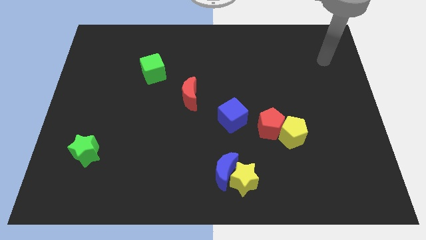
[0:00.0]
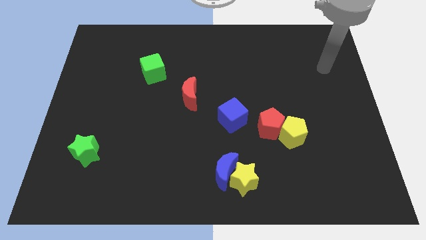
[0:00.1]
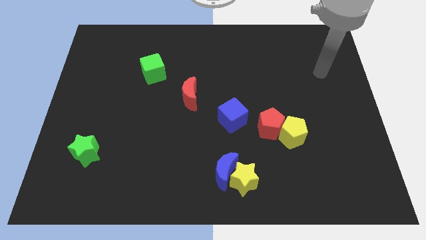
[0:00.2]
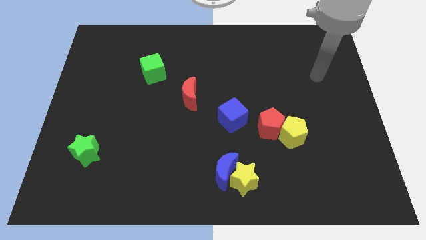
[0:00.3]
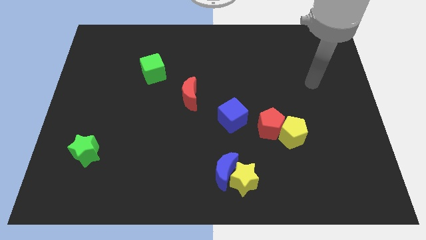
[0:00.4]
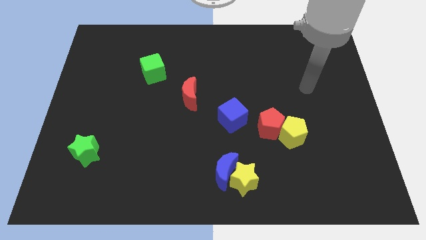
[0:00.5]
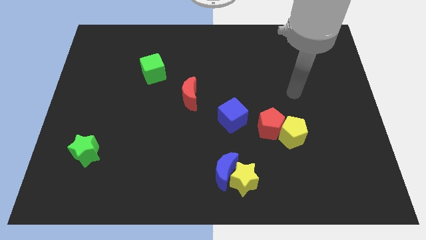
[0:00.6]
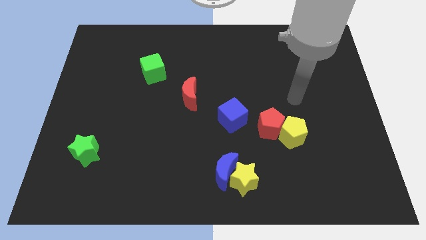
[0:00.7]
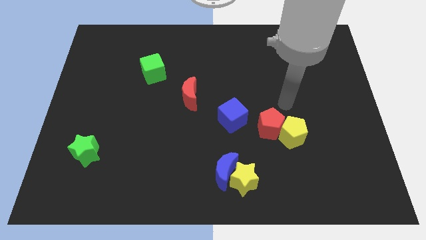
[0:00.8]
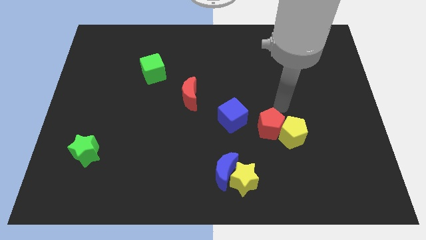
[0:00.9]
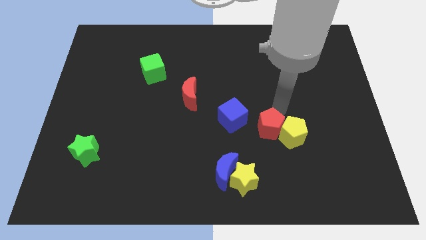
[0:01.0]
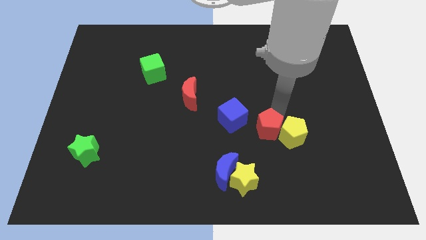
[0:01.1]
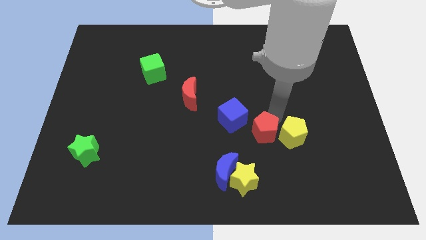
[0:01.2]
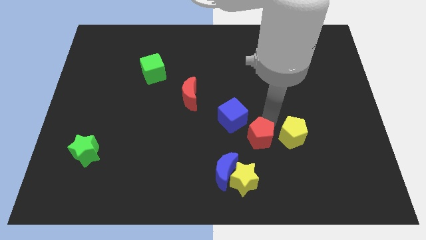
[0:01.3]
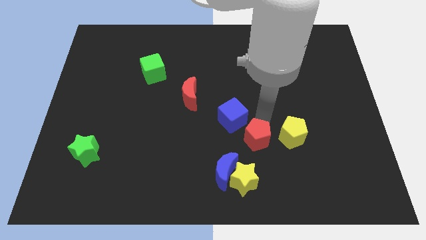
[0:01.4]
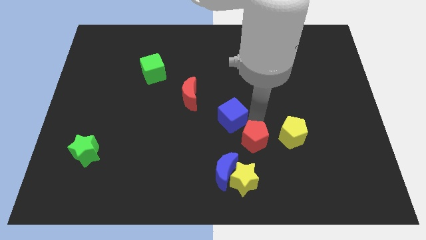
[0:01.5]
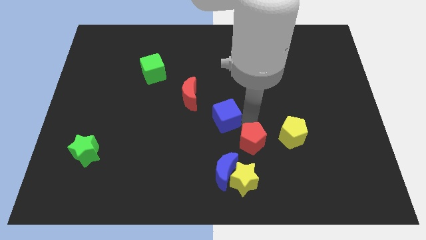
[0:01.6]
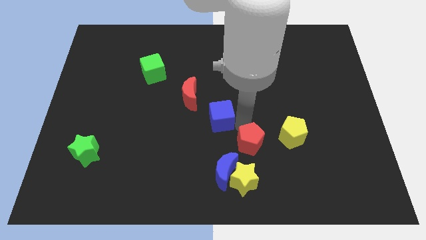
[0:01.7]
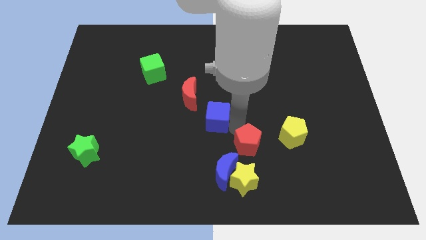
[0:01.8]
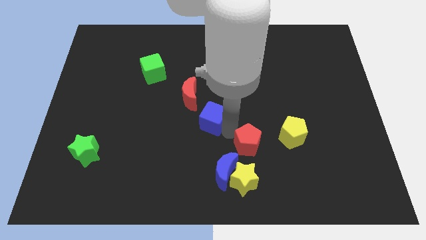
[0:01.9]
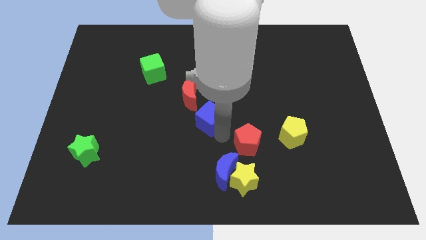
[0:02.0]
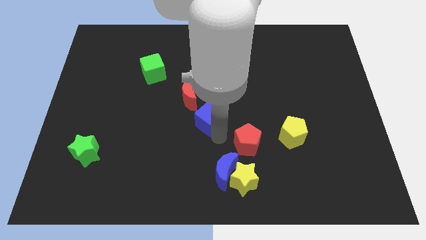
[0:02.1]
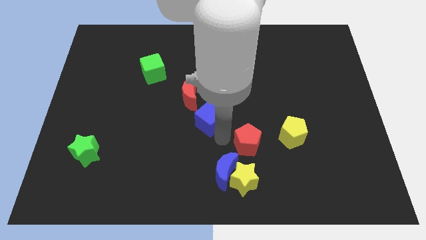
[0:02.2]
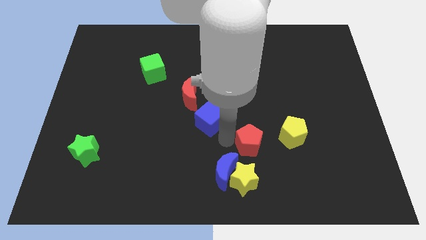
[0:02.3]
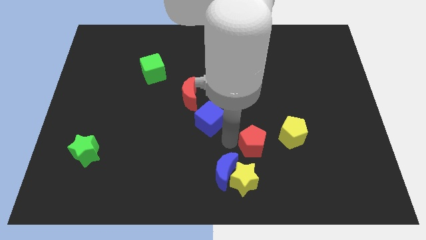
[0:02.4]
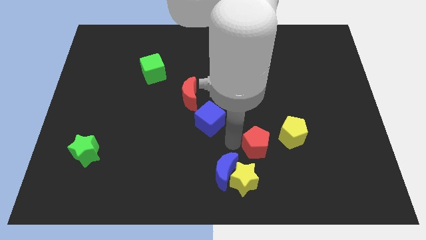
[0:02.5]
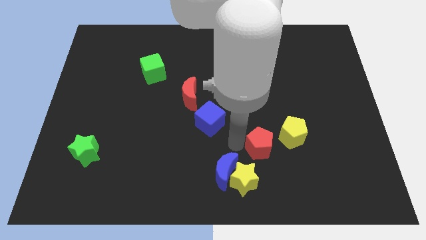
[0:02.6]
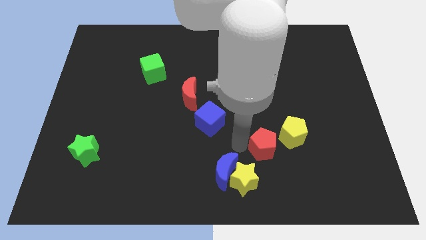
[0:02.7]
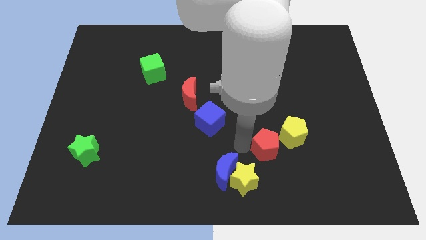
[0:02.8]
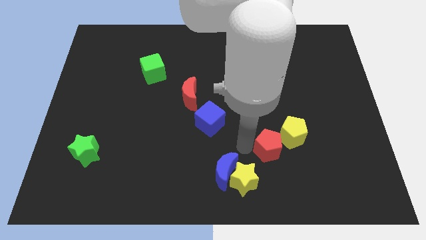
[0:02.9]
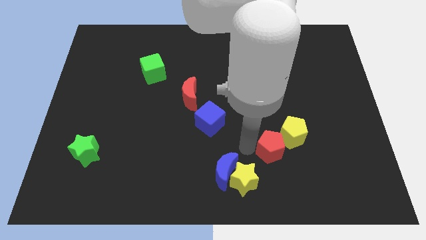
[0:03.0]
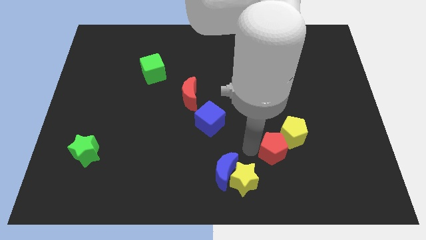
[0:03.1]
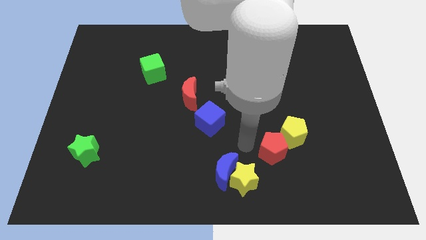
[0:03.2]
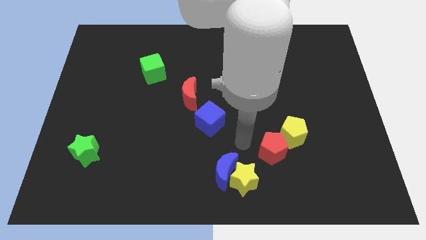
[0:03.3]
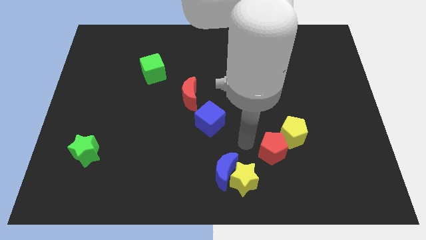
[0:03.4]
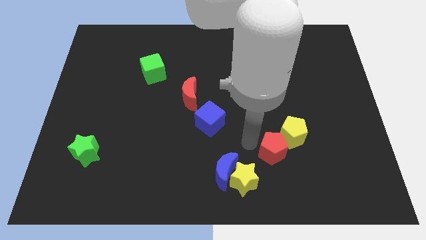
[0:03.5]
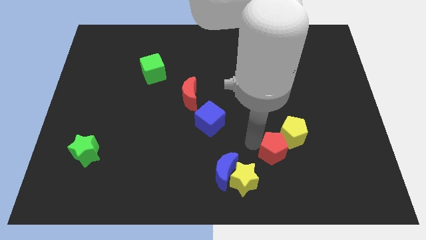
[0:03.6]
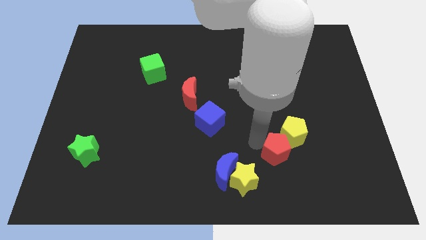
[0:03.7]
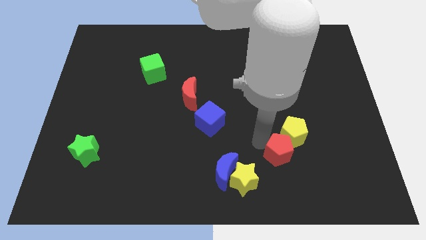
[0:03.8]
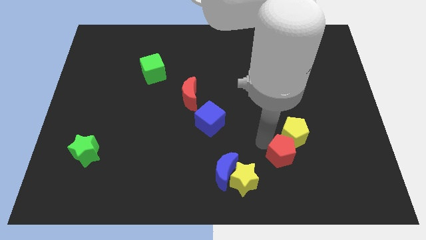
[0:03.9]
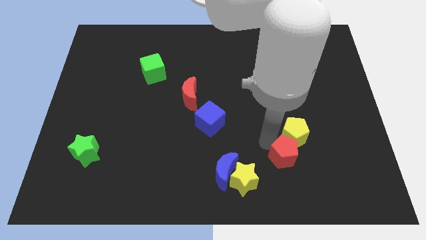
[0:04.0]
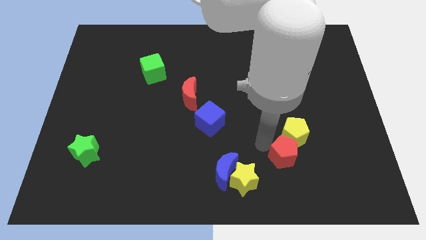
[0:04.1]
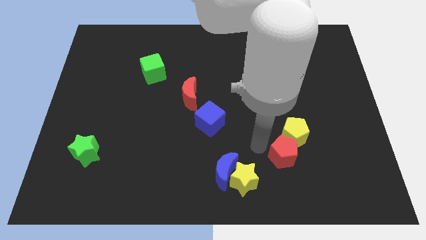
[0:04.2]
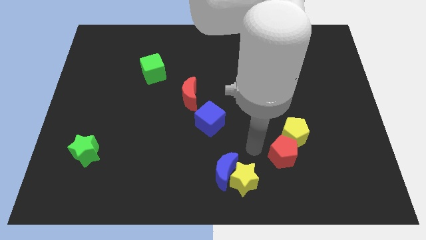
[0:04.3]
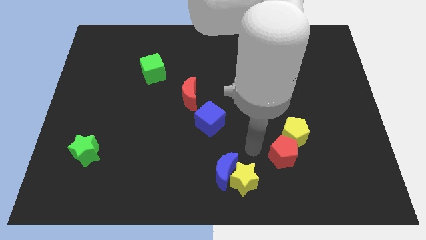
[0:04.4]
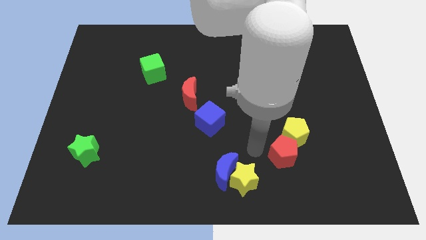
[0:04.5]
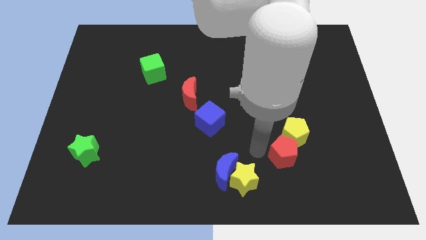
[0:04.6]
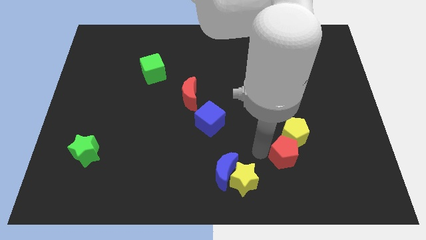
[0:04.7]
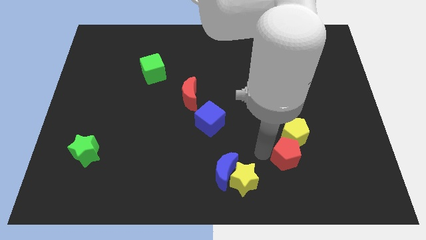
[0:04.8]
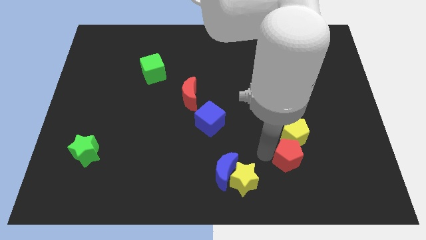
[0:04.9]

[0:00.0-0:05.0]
move the red pentagon down and to the right somewhat

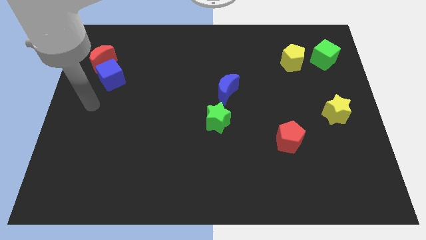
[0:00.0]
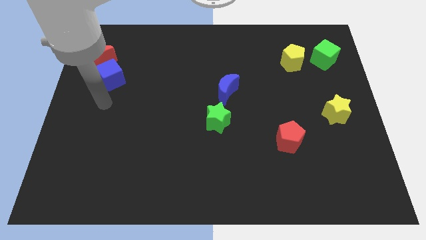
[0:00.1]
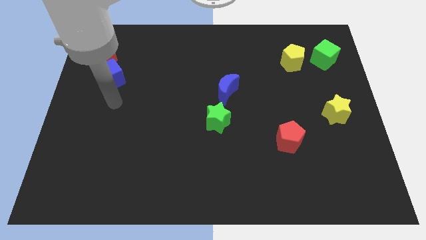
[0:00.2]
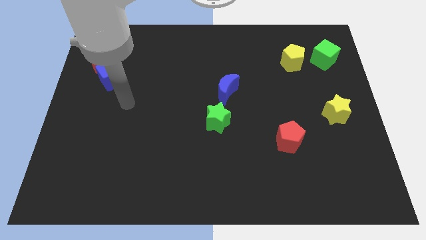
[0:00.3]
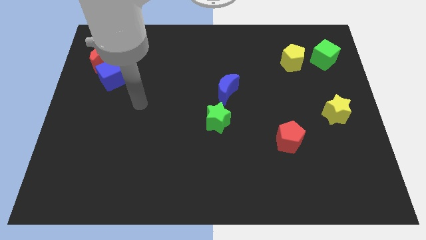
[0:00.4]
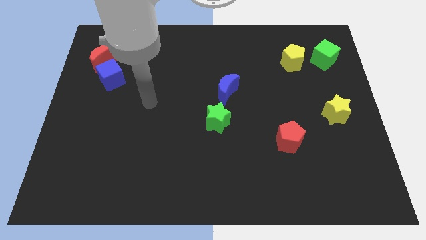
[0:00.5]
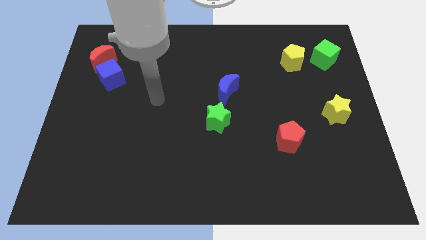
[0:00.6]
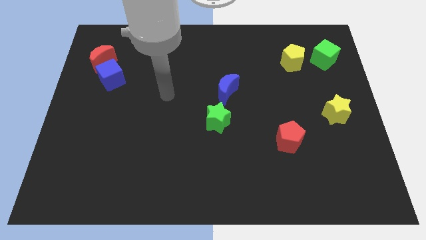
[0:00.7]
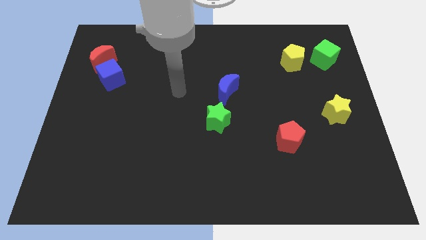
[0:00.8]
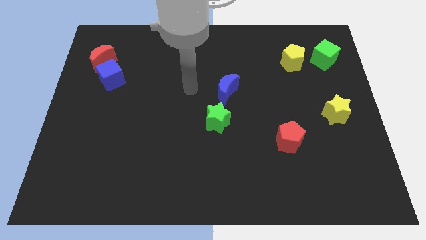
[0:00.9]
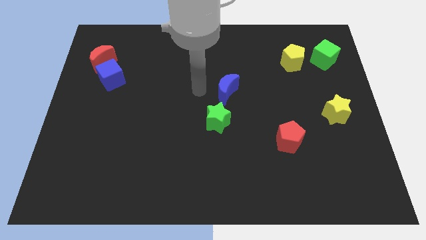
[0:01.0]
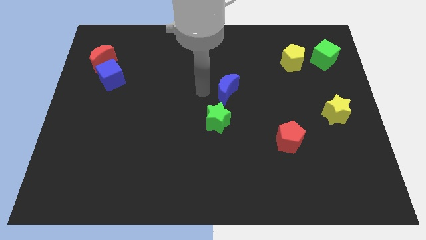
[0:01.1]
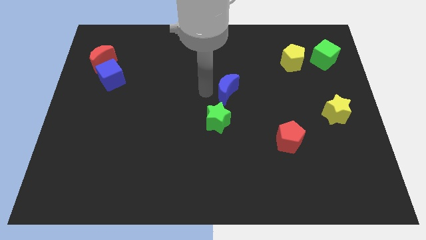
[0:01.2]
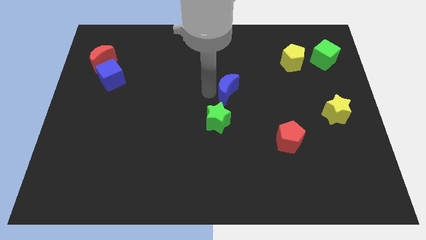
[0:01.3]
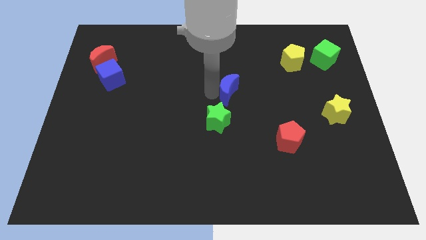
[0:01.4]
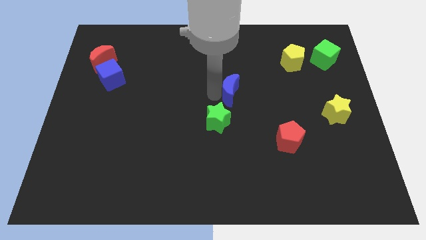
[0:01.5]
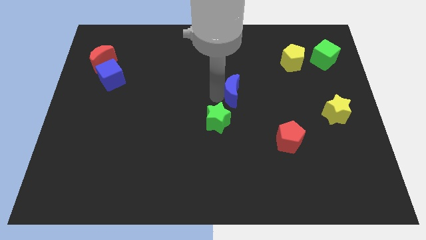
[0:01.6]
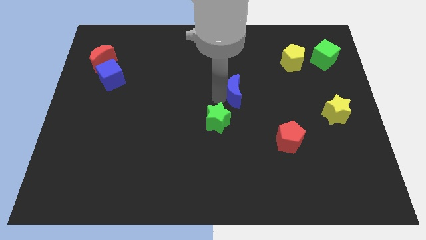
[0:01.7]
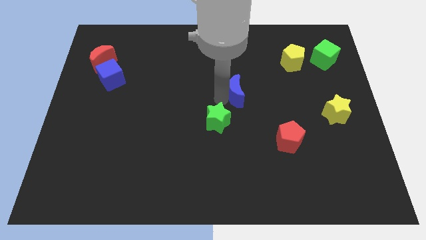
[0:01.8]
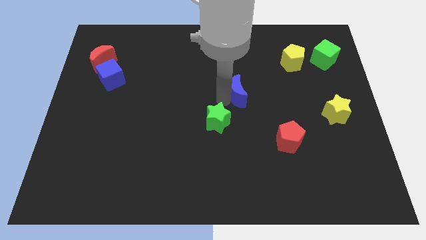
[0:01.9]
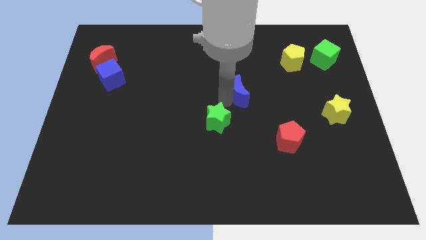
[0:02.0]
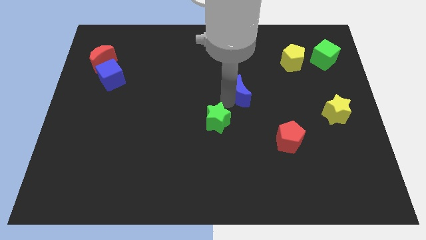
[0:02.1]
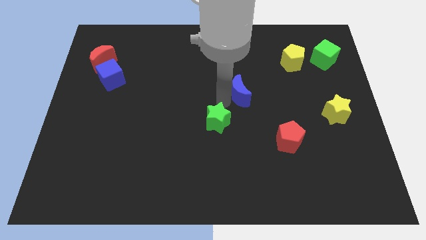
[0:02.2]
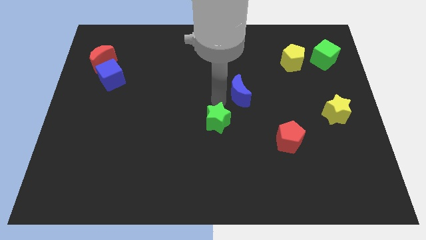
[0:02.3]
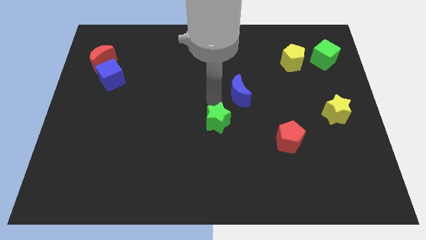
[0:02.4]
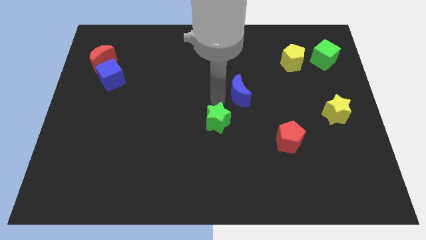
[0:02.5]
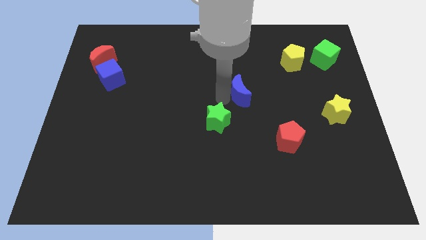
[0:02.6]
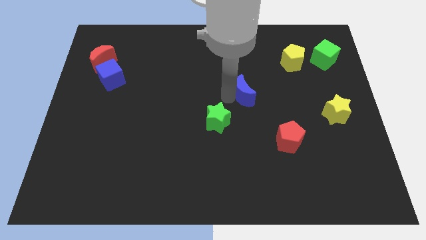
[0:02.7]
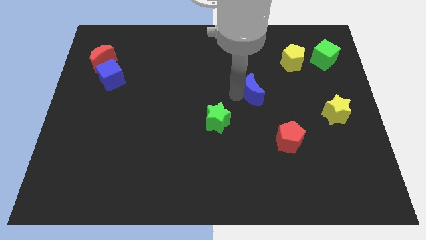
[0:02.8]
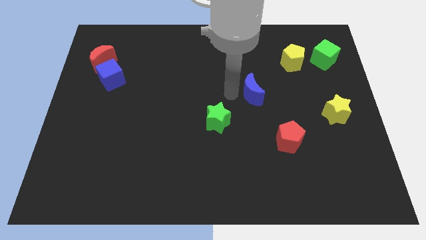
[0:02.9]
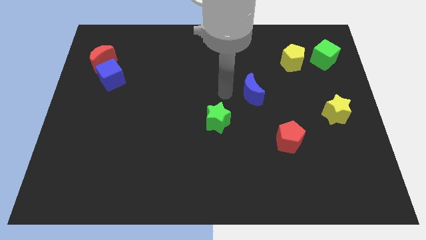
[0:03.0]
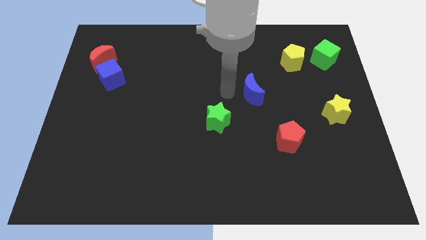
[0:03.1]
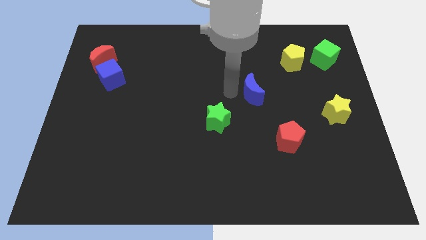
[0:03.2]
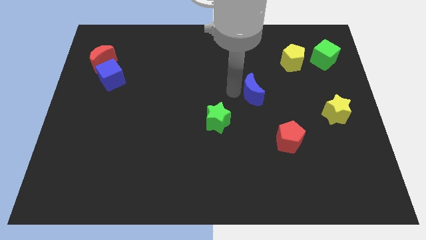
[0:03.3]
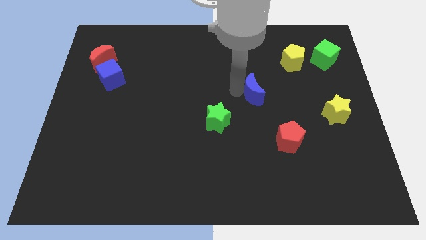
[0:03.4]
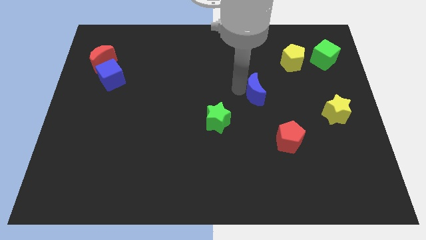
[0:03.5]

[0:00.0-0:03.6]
slightly slide the blue moon right
